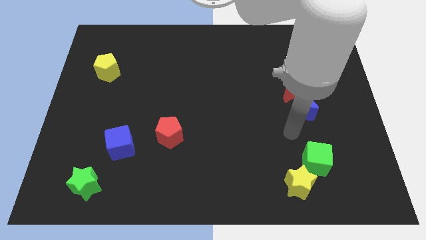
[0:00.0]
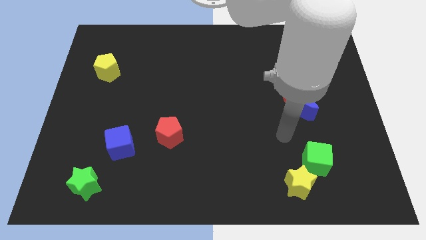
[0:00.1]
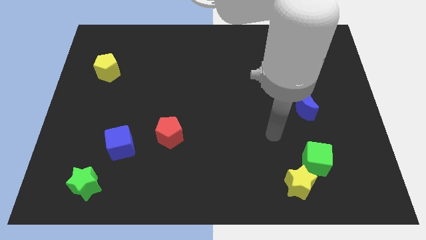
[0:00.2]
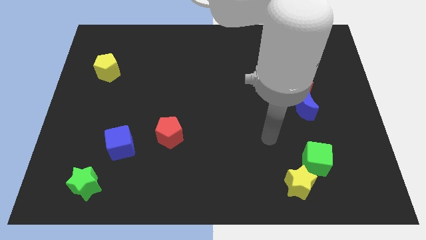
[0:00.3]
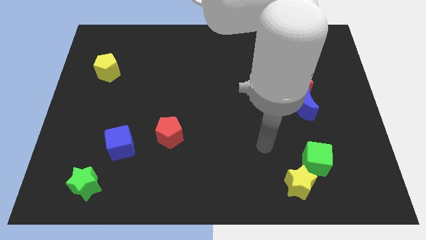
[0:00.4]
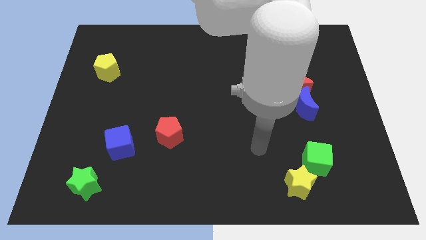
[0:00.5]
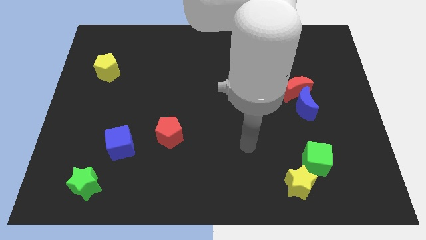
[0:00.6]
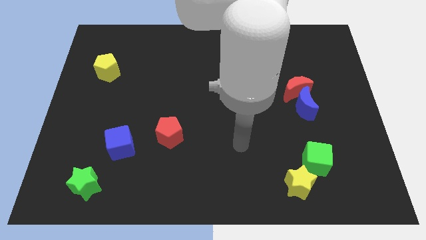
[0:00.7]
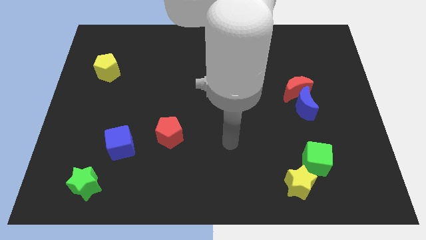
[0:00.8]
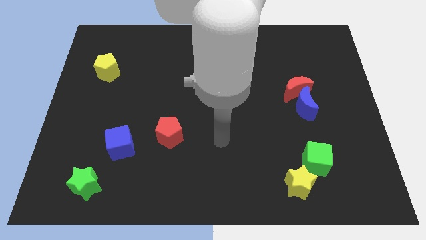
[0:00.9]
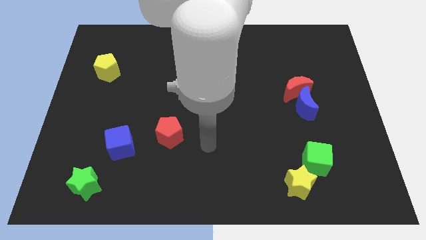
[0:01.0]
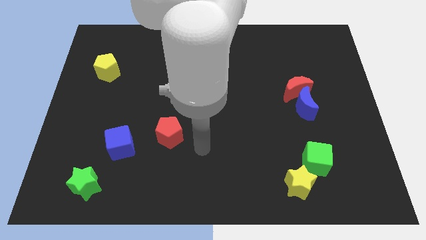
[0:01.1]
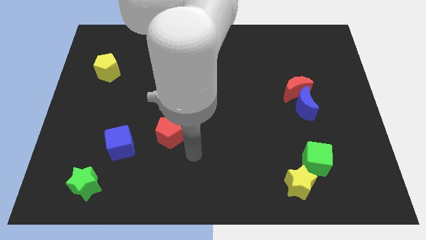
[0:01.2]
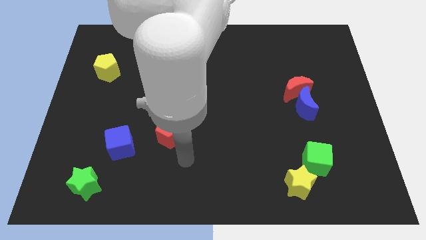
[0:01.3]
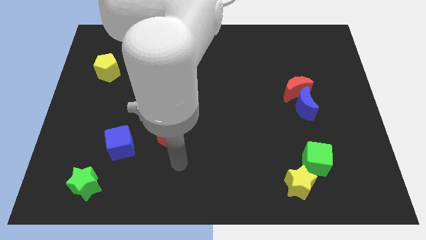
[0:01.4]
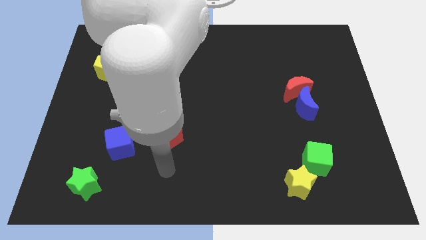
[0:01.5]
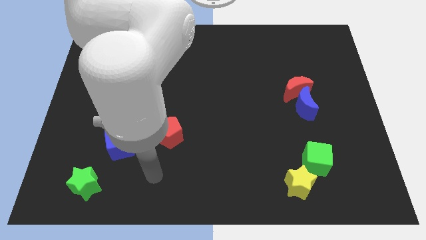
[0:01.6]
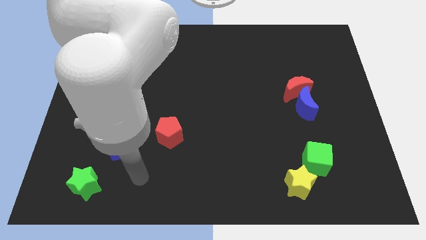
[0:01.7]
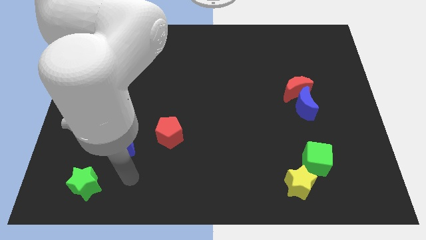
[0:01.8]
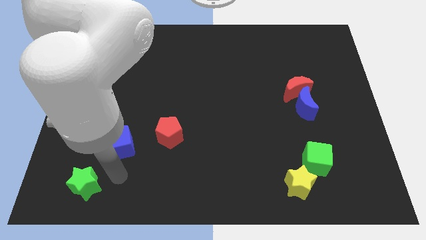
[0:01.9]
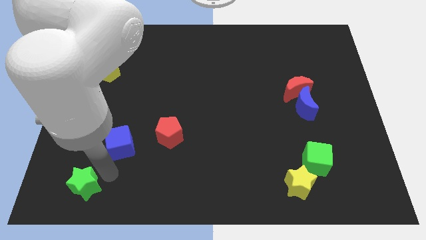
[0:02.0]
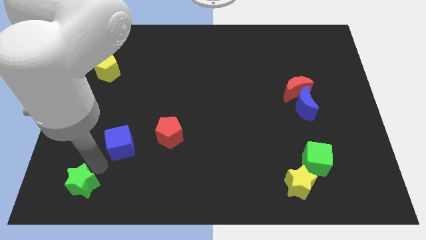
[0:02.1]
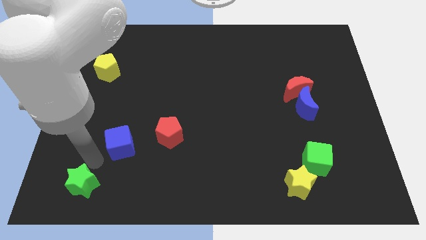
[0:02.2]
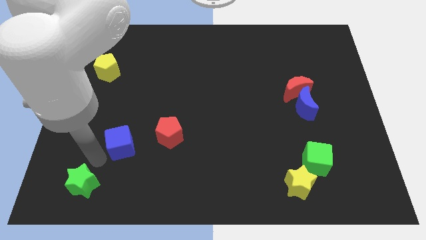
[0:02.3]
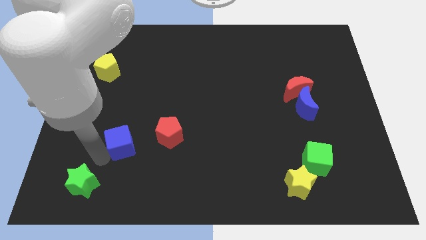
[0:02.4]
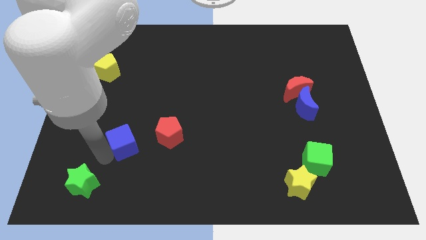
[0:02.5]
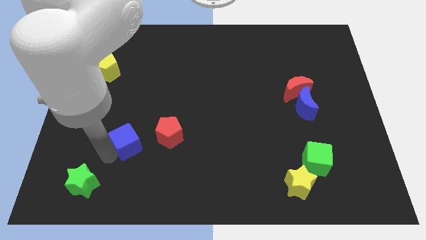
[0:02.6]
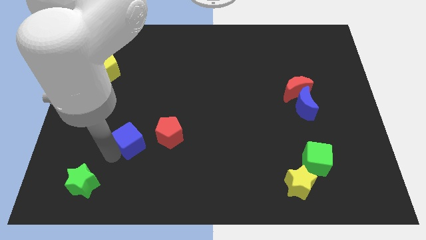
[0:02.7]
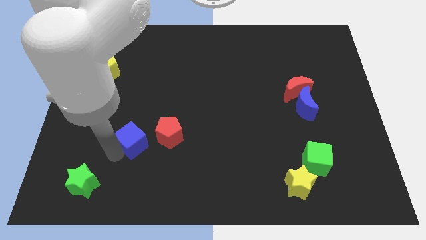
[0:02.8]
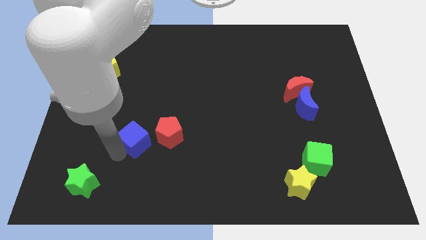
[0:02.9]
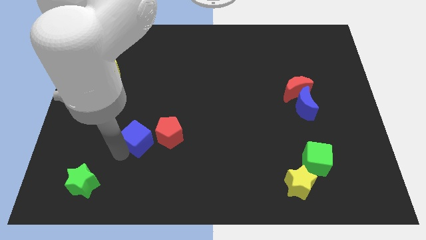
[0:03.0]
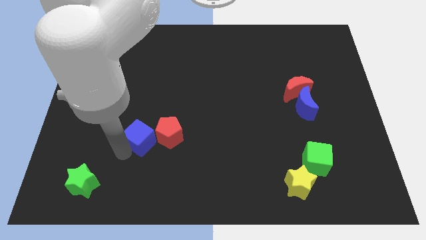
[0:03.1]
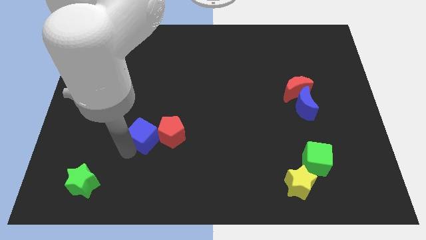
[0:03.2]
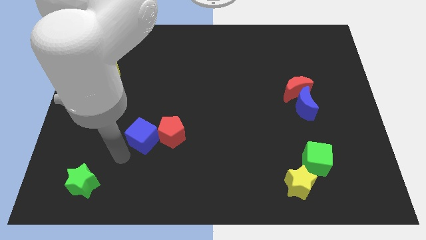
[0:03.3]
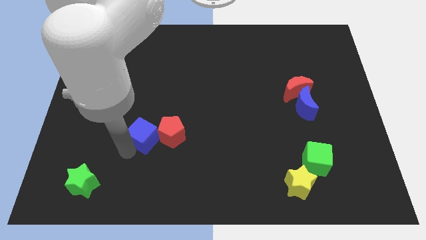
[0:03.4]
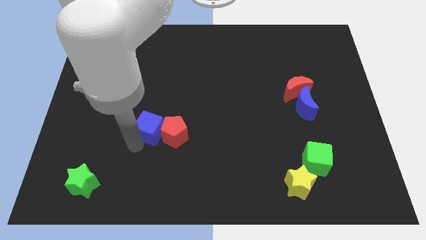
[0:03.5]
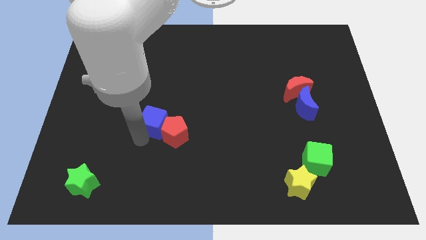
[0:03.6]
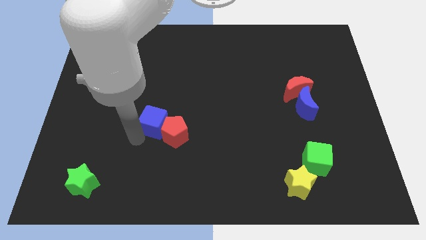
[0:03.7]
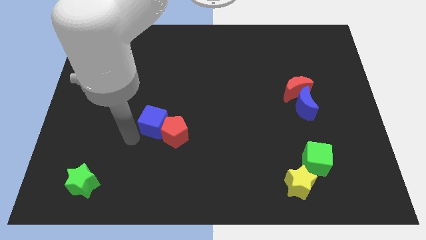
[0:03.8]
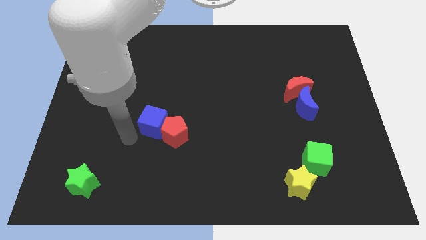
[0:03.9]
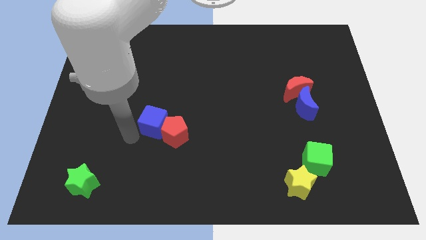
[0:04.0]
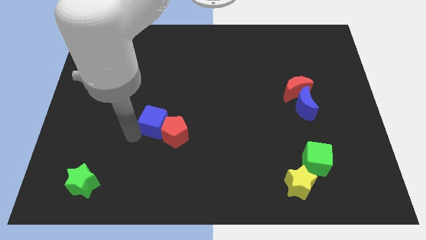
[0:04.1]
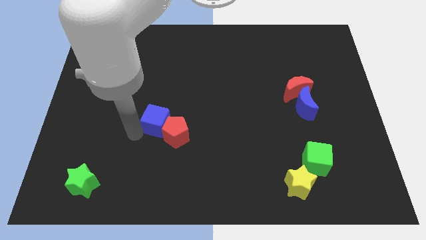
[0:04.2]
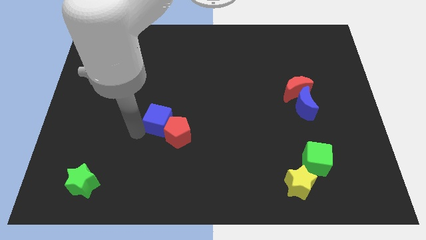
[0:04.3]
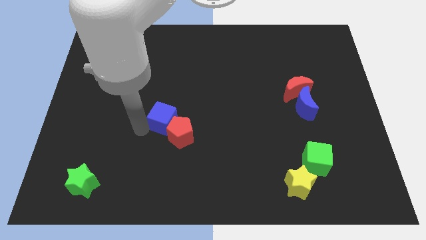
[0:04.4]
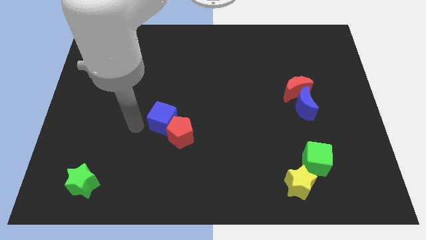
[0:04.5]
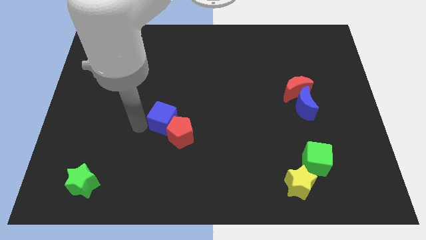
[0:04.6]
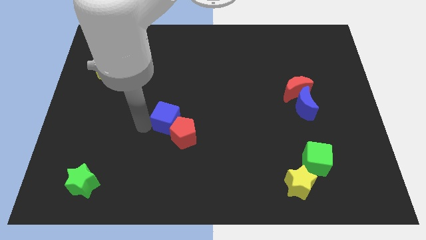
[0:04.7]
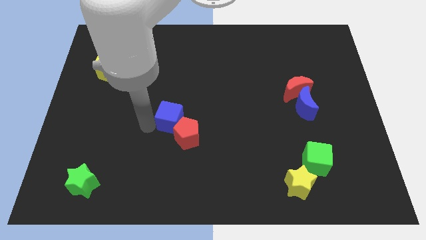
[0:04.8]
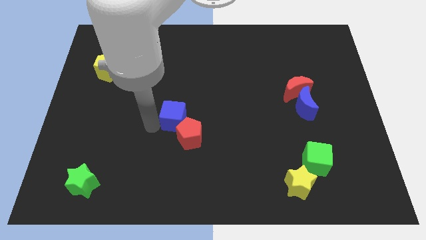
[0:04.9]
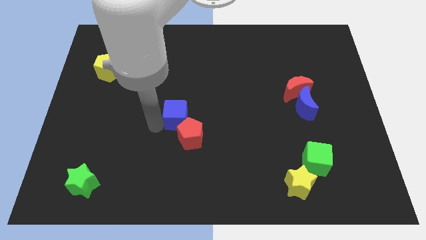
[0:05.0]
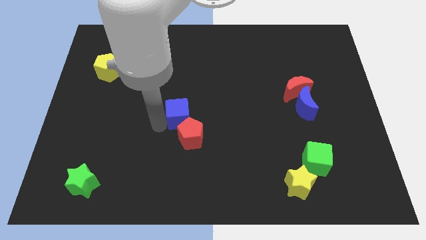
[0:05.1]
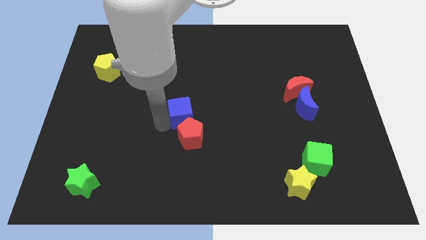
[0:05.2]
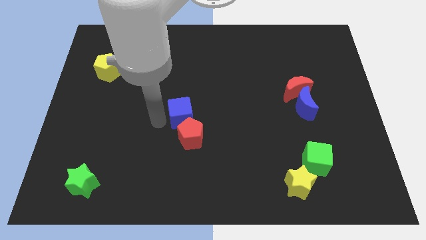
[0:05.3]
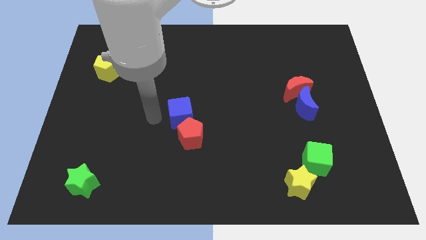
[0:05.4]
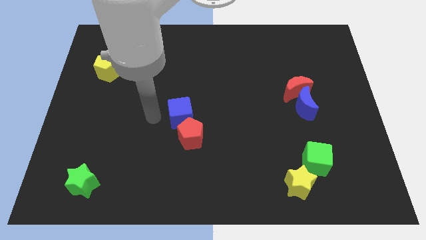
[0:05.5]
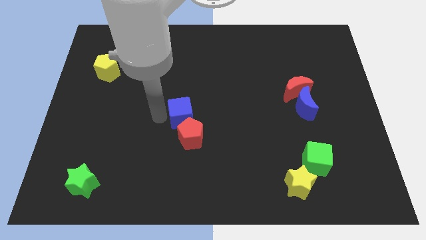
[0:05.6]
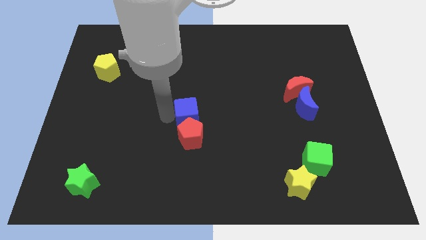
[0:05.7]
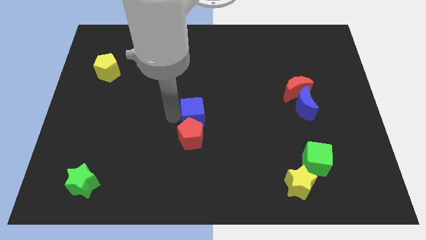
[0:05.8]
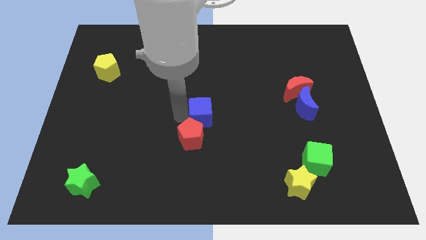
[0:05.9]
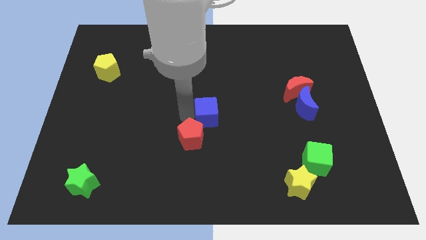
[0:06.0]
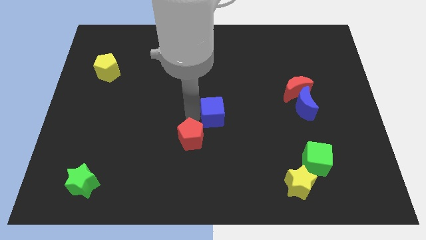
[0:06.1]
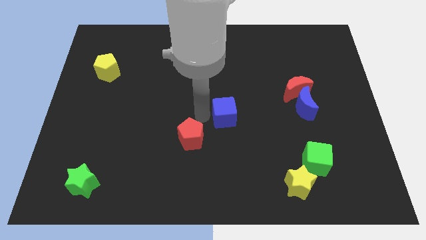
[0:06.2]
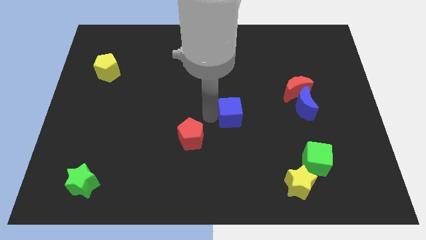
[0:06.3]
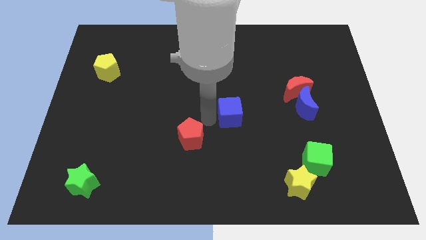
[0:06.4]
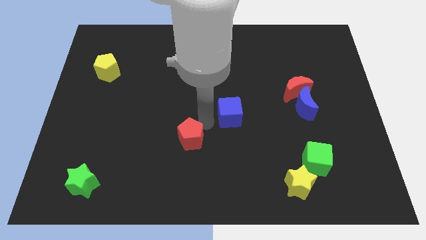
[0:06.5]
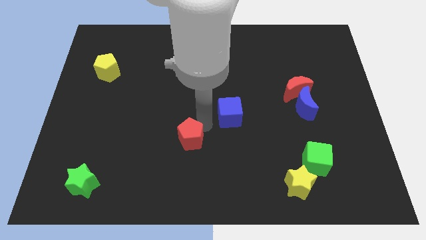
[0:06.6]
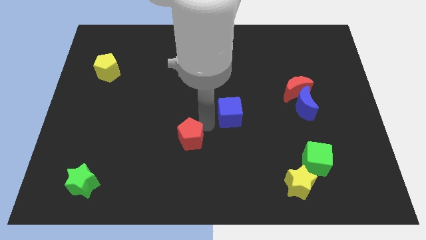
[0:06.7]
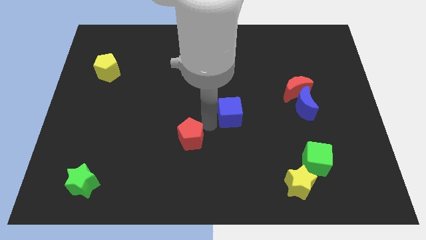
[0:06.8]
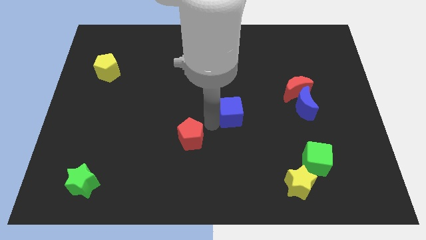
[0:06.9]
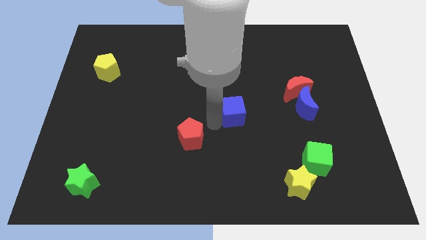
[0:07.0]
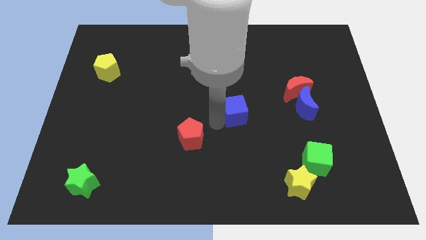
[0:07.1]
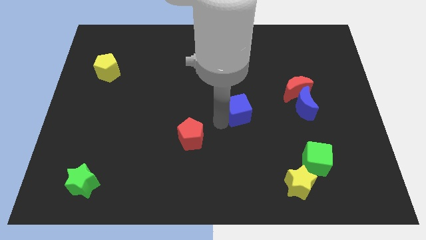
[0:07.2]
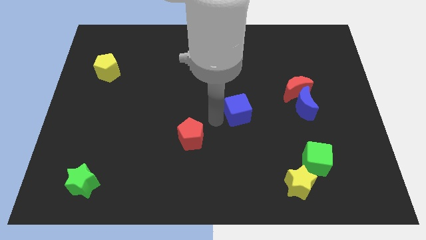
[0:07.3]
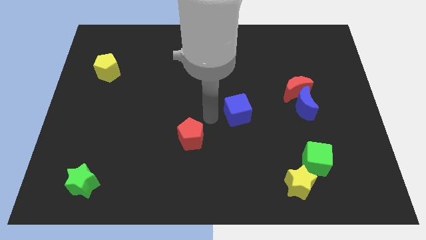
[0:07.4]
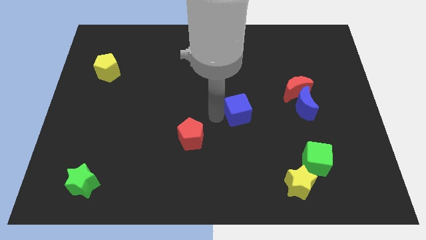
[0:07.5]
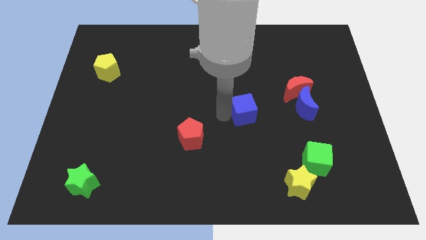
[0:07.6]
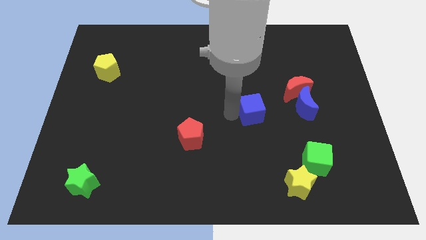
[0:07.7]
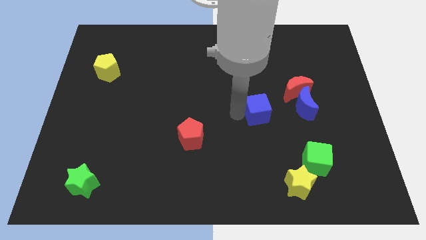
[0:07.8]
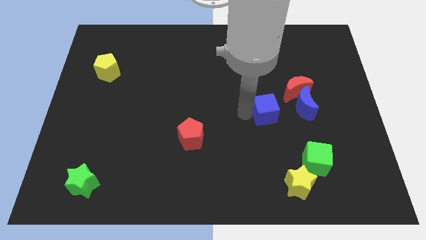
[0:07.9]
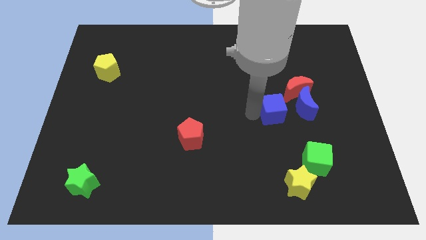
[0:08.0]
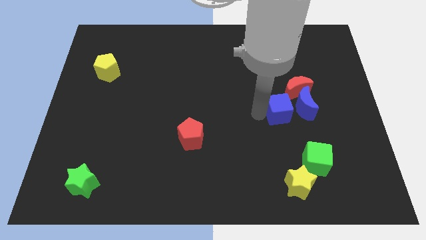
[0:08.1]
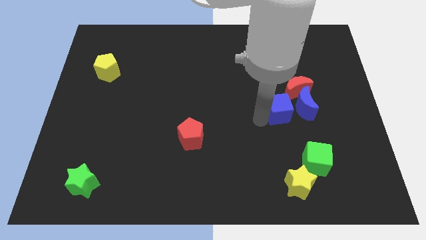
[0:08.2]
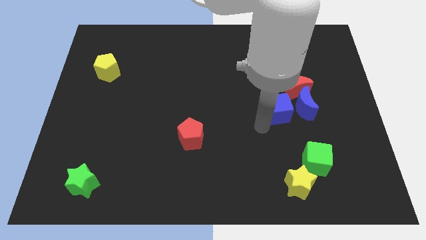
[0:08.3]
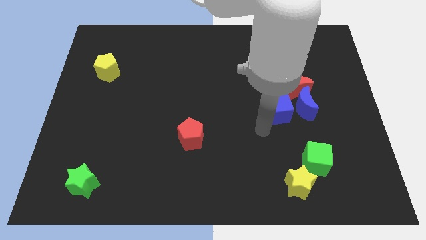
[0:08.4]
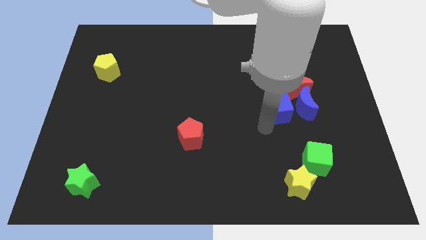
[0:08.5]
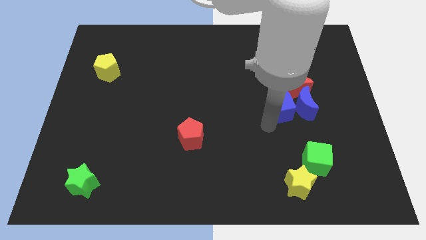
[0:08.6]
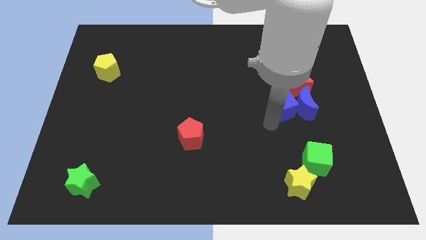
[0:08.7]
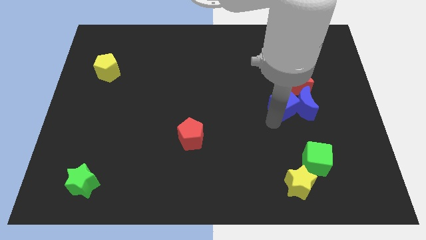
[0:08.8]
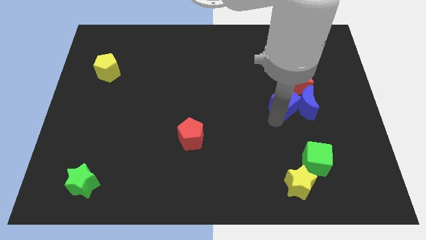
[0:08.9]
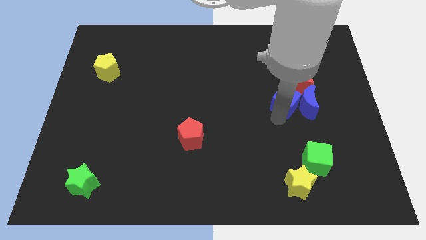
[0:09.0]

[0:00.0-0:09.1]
slide the blue cube next to the red moon
